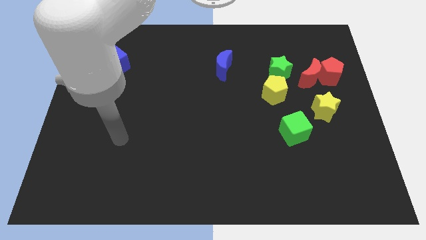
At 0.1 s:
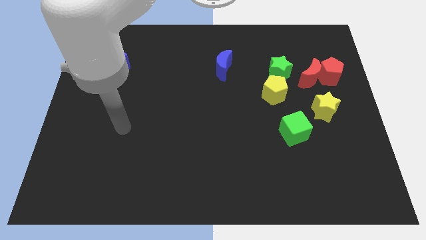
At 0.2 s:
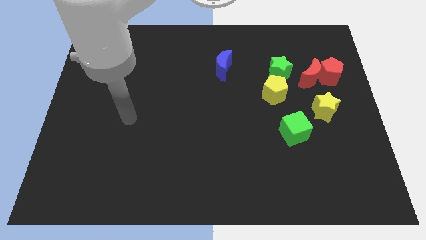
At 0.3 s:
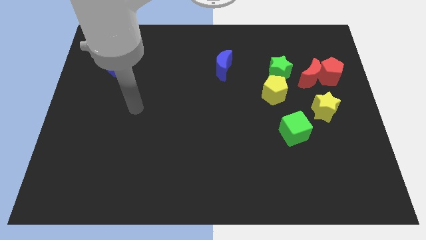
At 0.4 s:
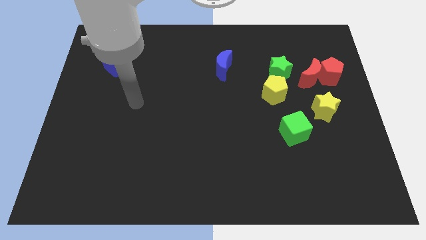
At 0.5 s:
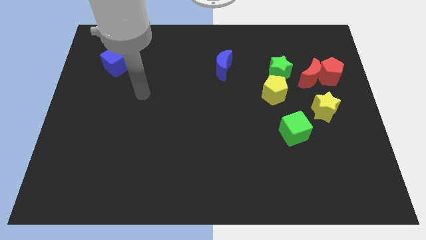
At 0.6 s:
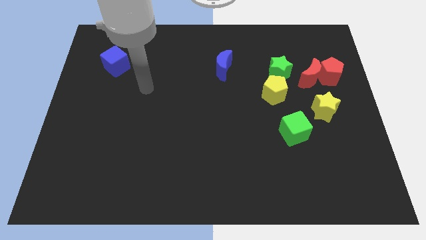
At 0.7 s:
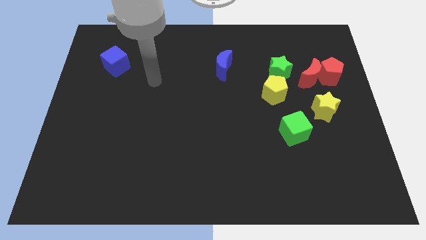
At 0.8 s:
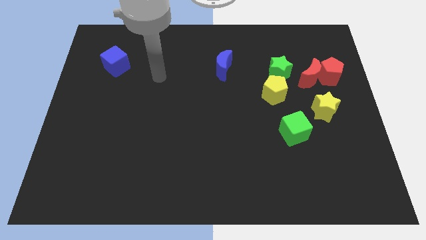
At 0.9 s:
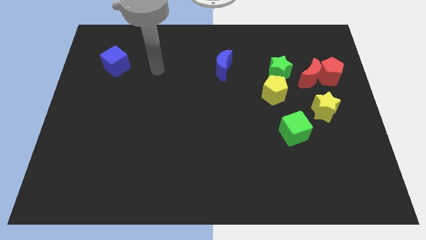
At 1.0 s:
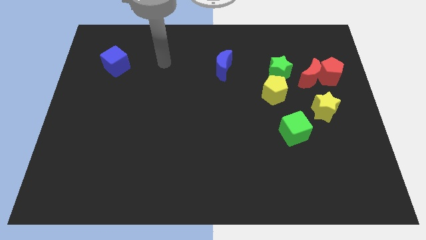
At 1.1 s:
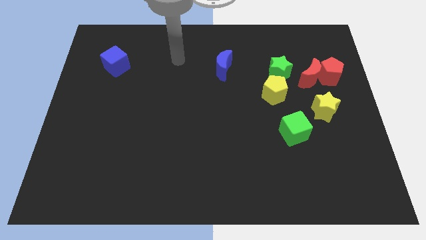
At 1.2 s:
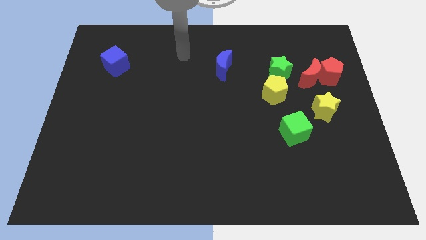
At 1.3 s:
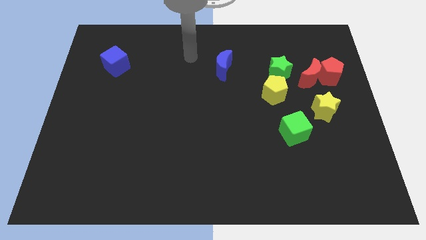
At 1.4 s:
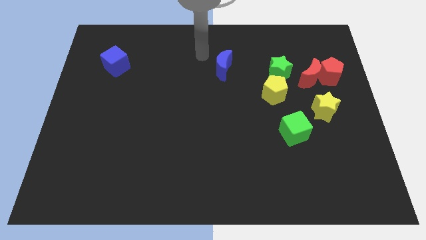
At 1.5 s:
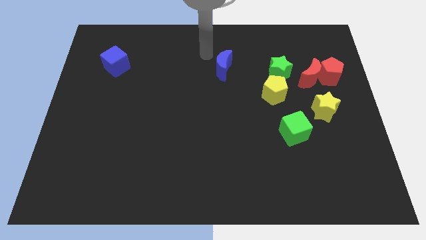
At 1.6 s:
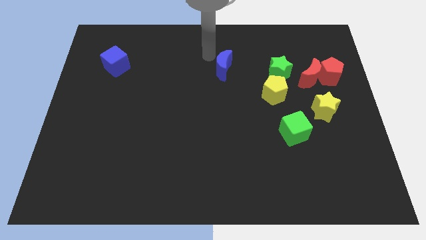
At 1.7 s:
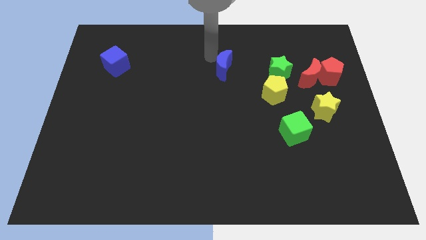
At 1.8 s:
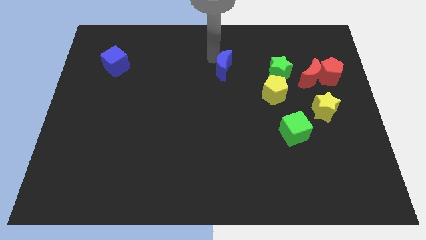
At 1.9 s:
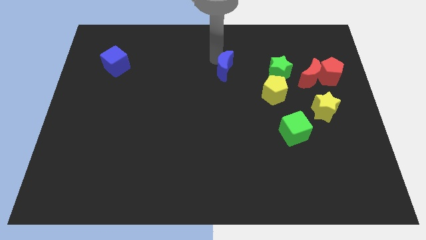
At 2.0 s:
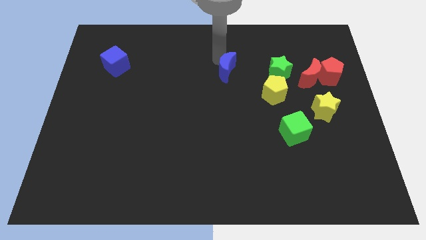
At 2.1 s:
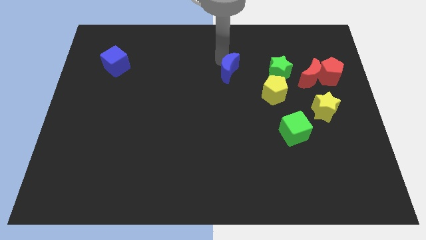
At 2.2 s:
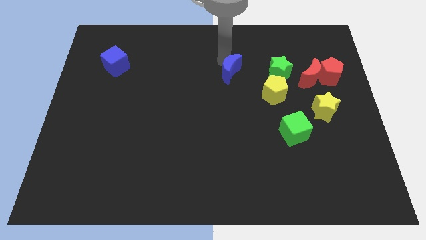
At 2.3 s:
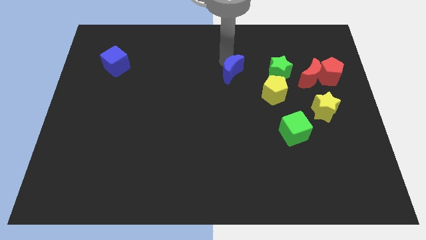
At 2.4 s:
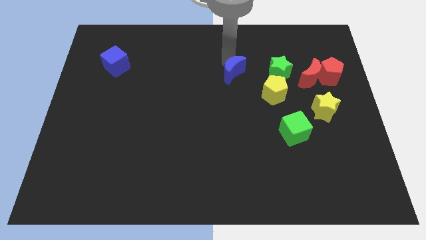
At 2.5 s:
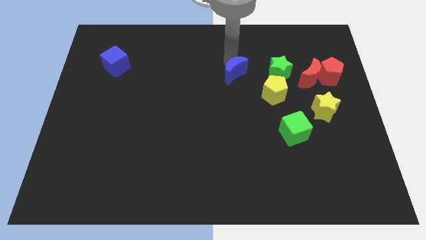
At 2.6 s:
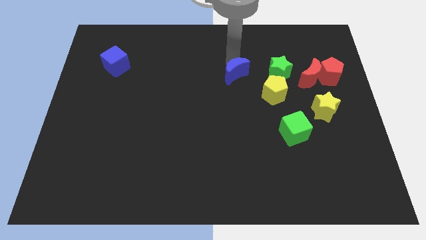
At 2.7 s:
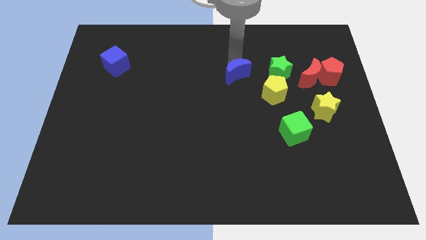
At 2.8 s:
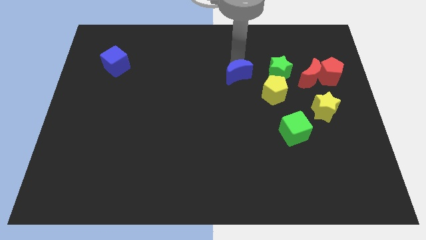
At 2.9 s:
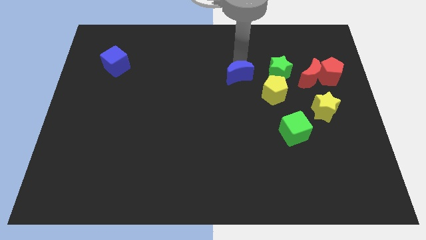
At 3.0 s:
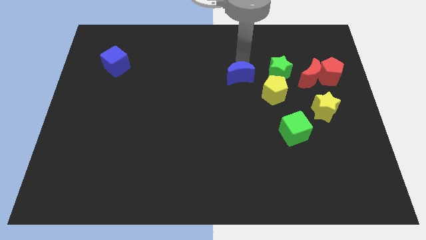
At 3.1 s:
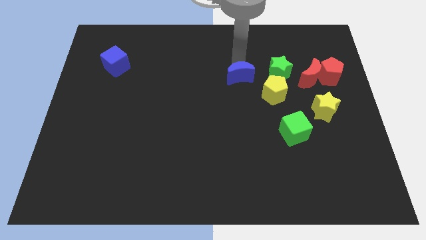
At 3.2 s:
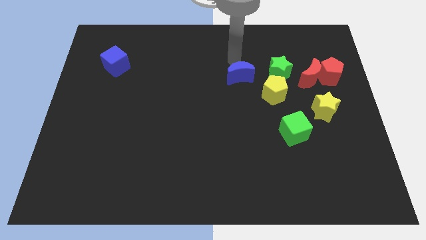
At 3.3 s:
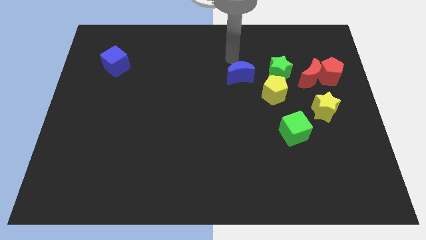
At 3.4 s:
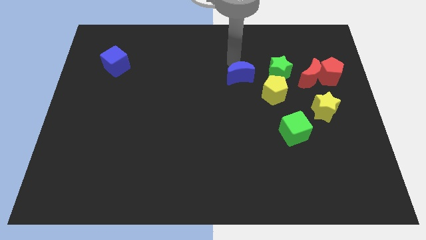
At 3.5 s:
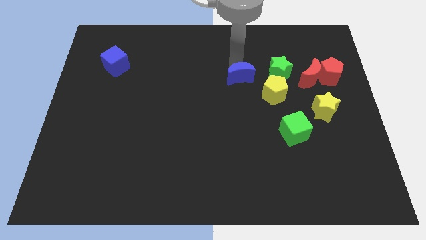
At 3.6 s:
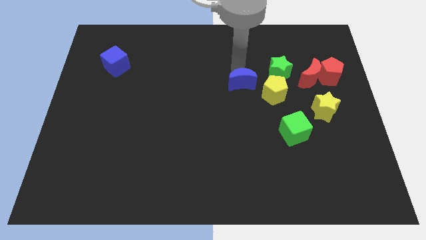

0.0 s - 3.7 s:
push the blue moon slightly down and then right

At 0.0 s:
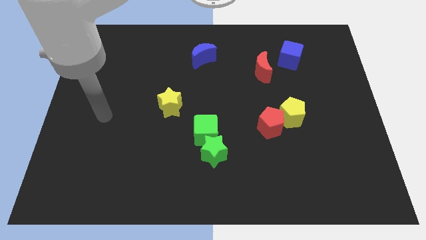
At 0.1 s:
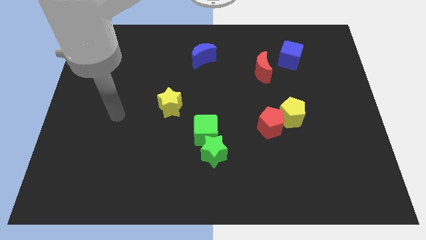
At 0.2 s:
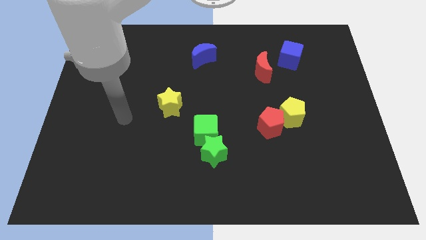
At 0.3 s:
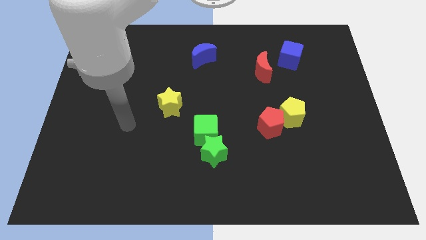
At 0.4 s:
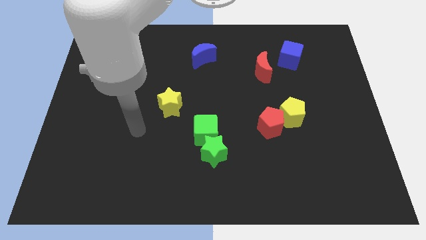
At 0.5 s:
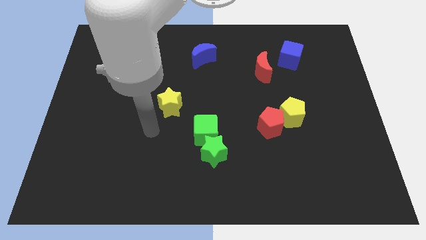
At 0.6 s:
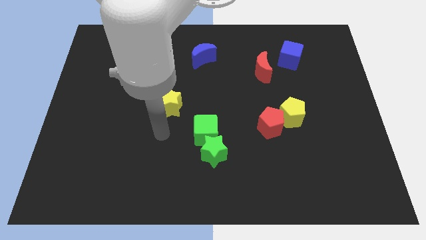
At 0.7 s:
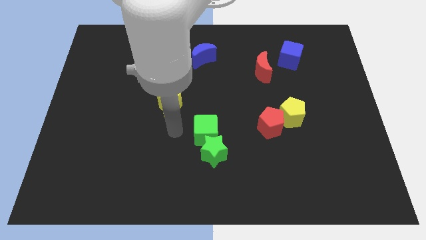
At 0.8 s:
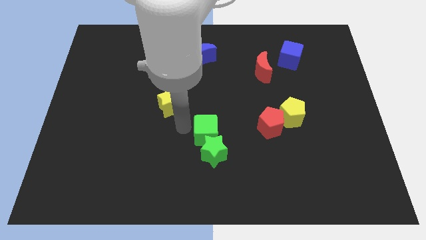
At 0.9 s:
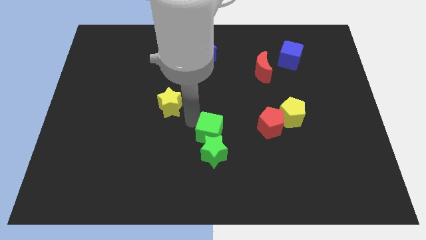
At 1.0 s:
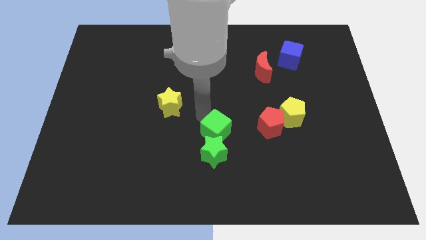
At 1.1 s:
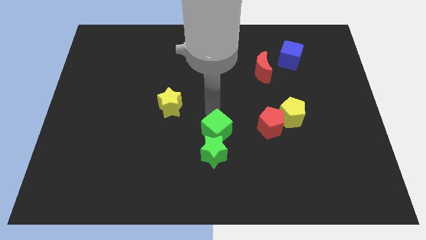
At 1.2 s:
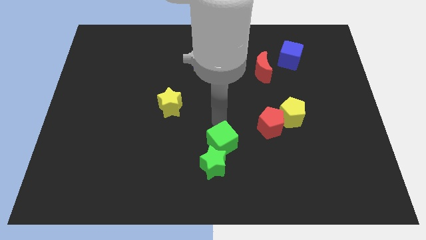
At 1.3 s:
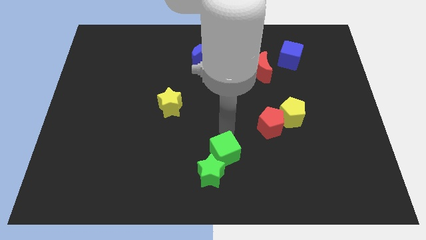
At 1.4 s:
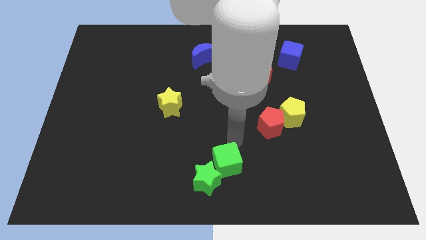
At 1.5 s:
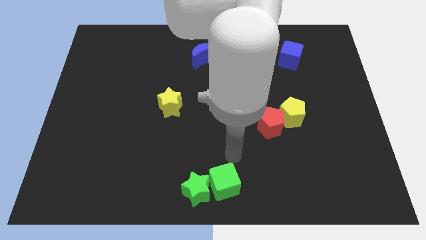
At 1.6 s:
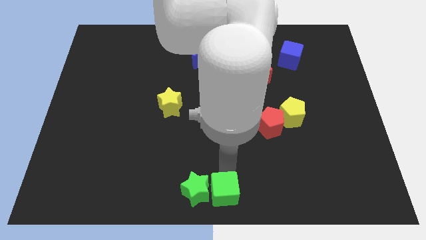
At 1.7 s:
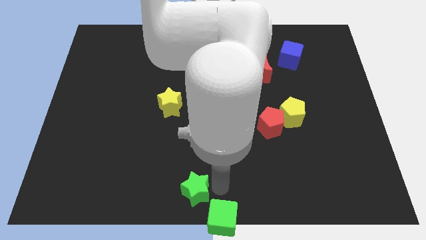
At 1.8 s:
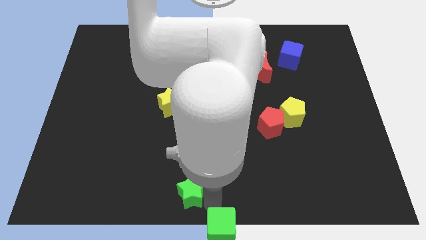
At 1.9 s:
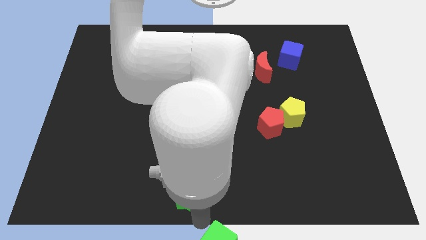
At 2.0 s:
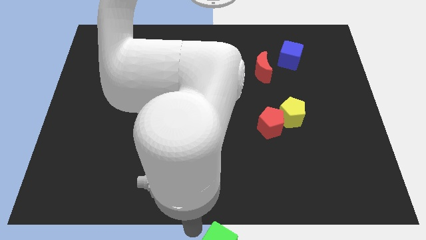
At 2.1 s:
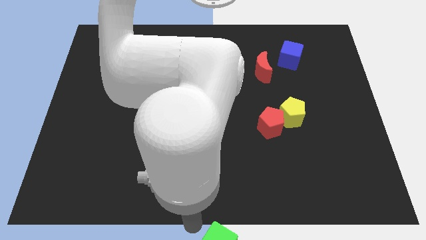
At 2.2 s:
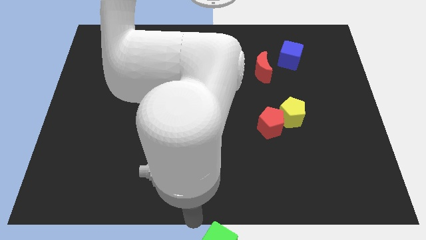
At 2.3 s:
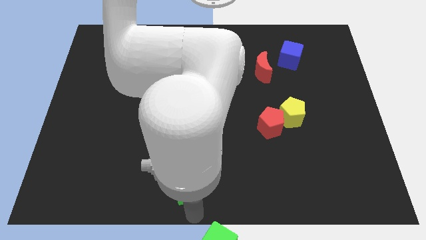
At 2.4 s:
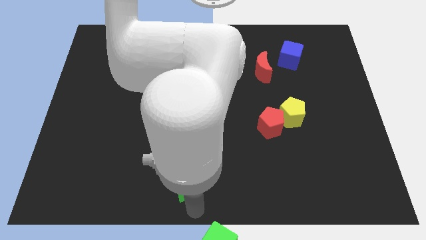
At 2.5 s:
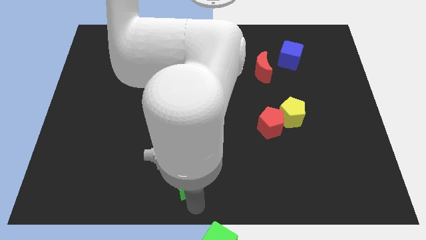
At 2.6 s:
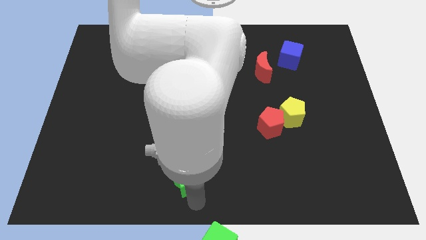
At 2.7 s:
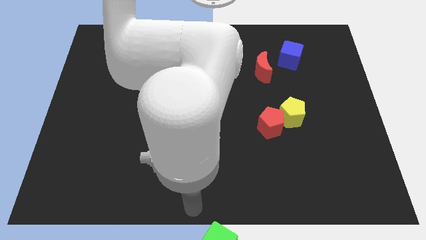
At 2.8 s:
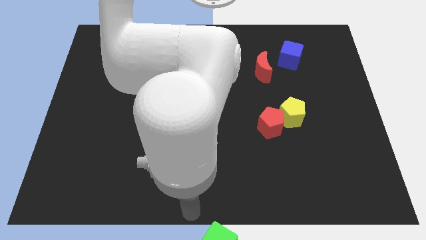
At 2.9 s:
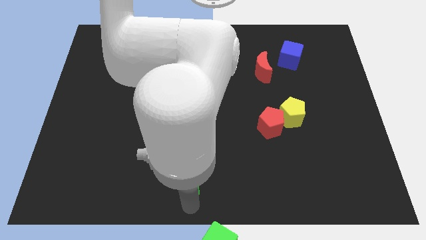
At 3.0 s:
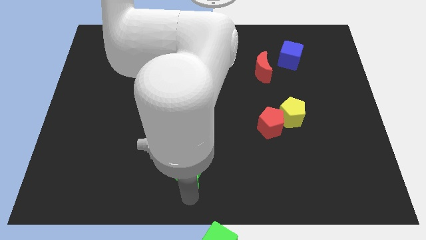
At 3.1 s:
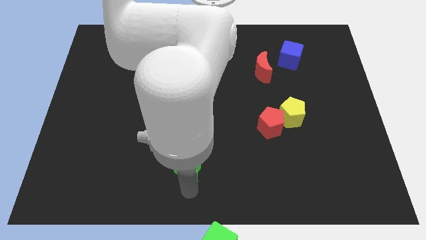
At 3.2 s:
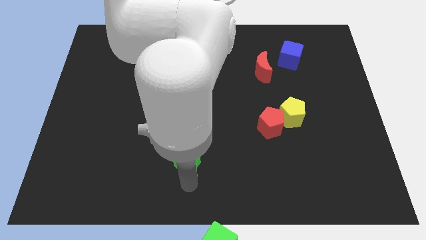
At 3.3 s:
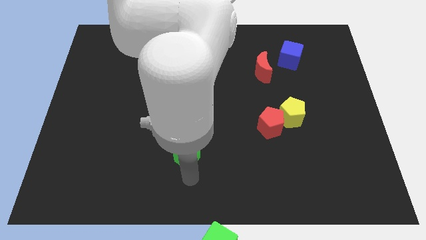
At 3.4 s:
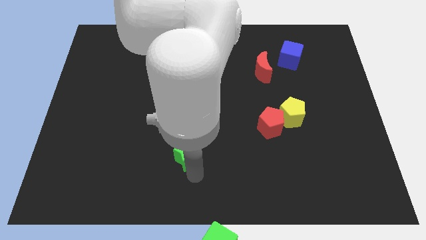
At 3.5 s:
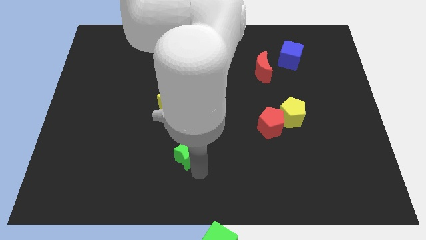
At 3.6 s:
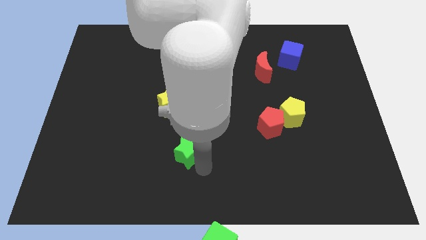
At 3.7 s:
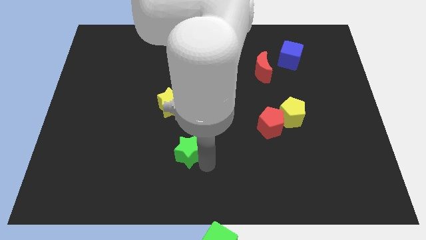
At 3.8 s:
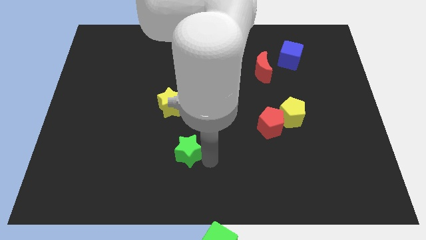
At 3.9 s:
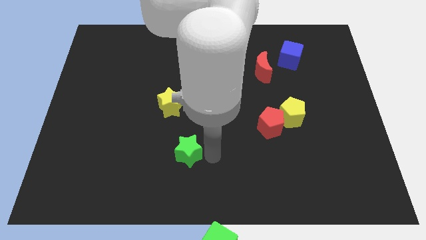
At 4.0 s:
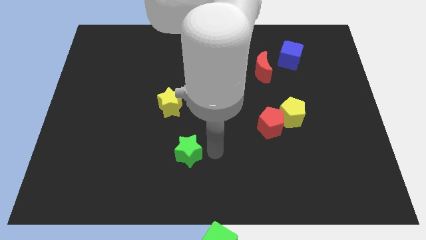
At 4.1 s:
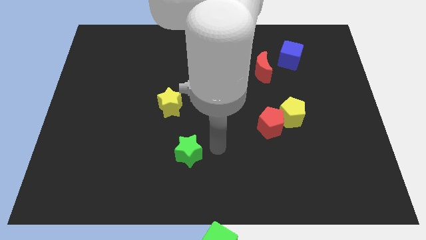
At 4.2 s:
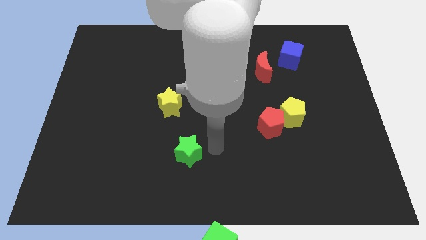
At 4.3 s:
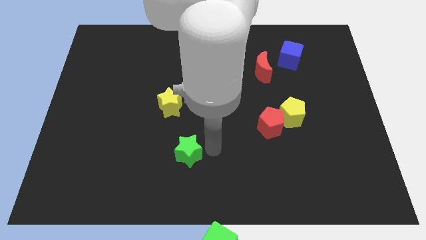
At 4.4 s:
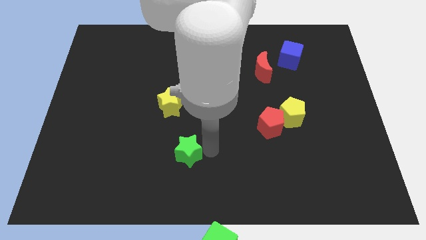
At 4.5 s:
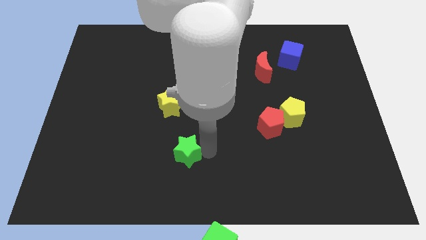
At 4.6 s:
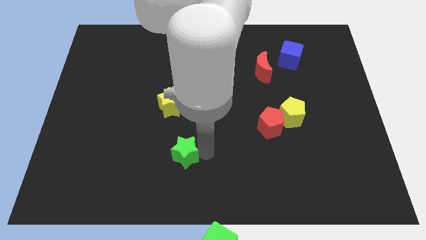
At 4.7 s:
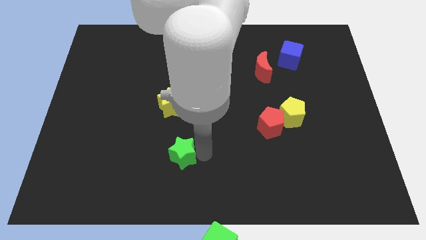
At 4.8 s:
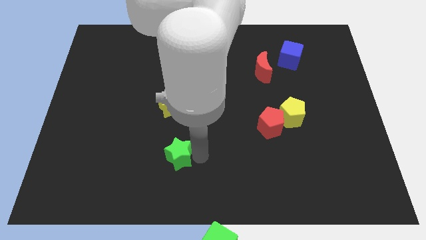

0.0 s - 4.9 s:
move the green star a bit left
